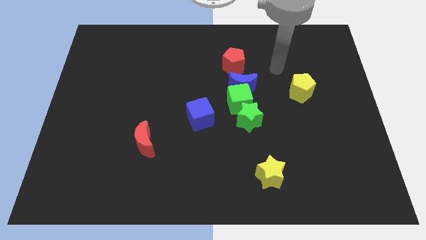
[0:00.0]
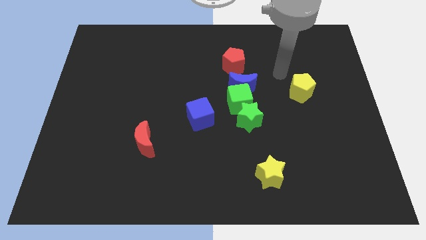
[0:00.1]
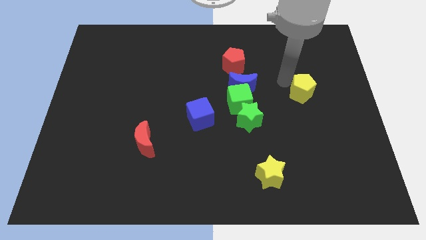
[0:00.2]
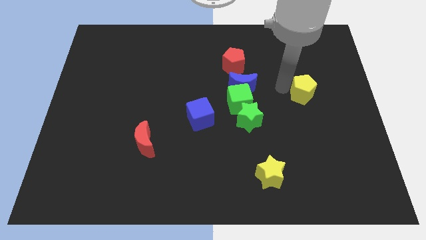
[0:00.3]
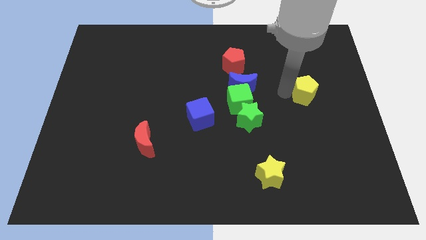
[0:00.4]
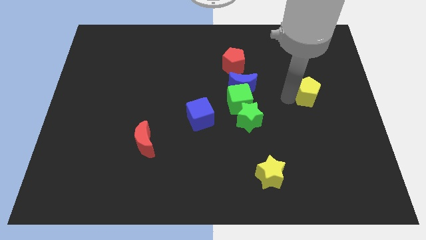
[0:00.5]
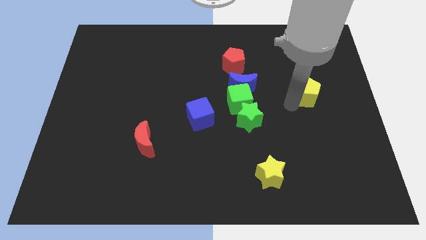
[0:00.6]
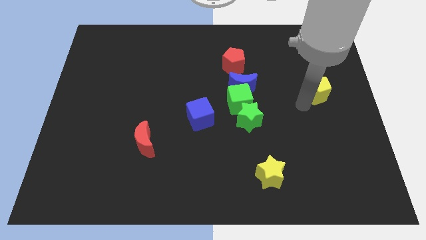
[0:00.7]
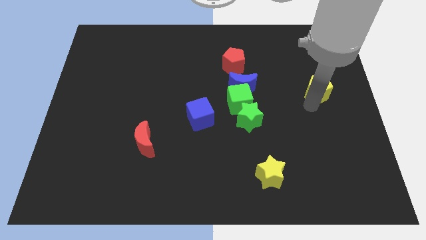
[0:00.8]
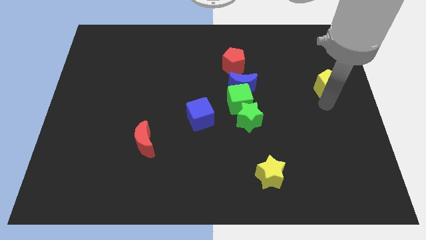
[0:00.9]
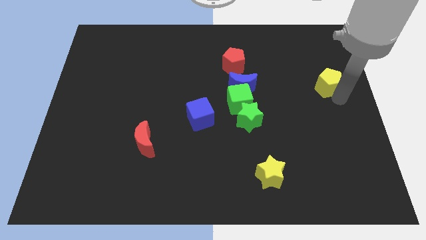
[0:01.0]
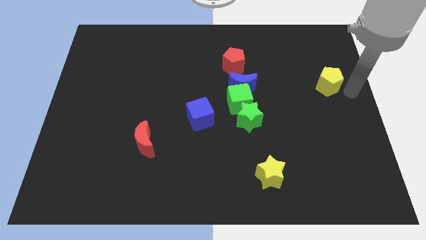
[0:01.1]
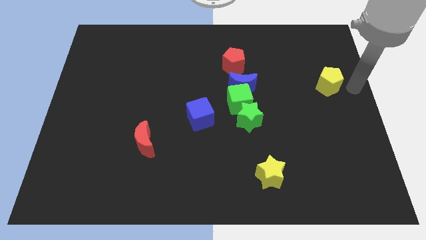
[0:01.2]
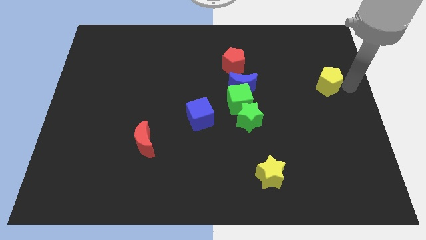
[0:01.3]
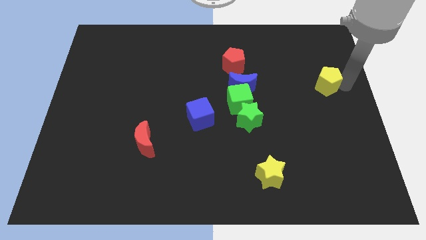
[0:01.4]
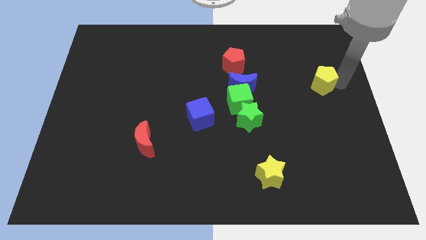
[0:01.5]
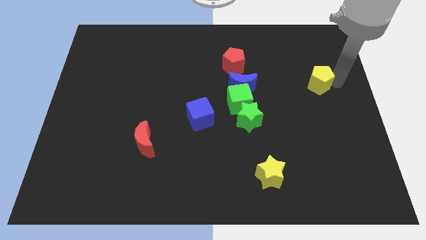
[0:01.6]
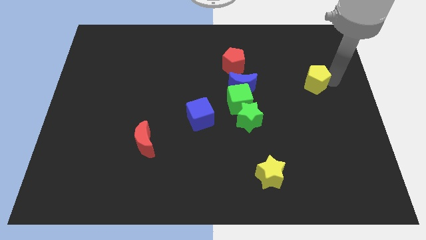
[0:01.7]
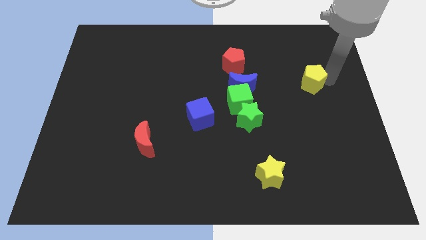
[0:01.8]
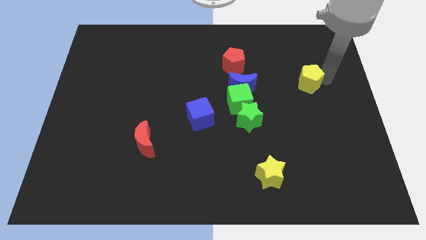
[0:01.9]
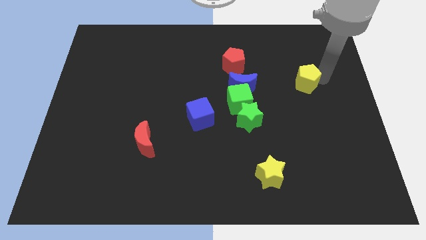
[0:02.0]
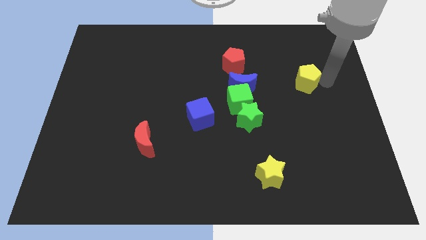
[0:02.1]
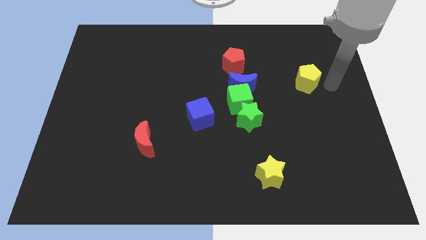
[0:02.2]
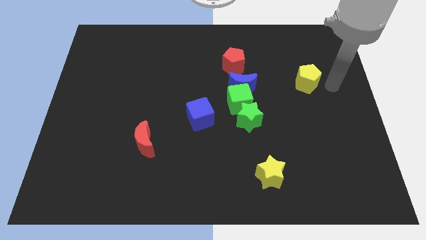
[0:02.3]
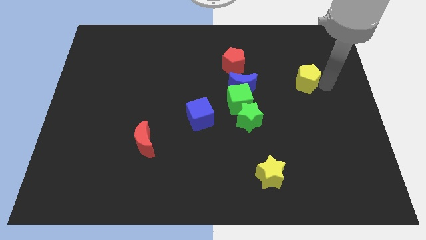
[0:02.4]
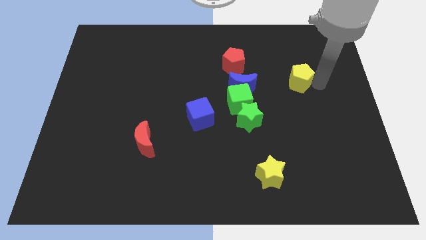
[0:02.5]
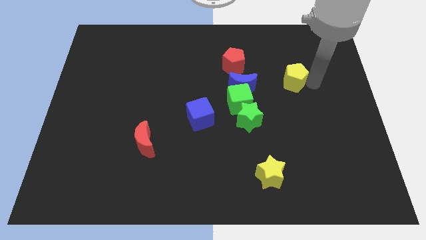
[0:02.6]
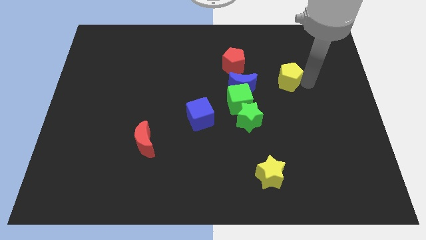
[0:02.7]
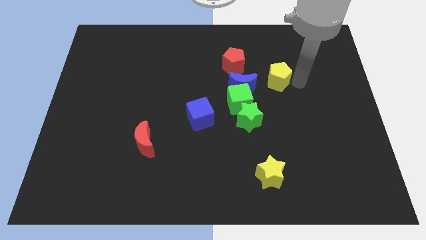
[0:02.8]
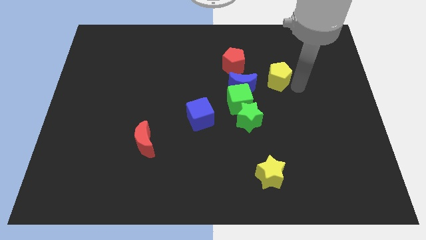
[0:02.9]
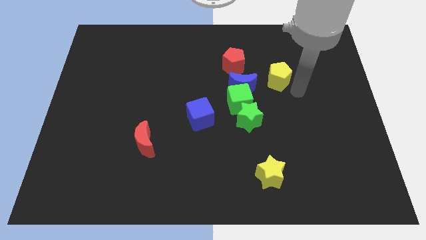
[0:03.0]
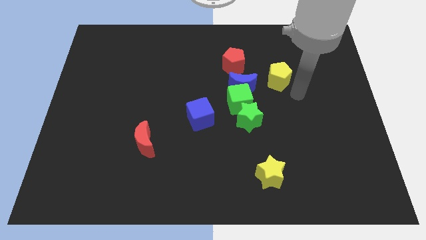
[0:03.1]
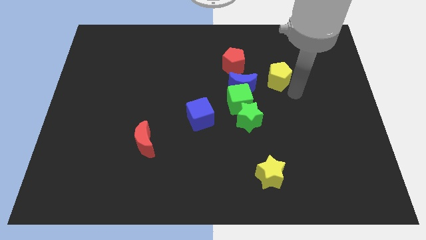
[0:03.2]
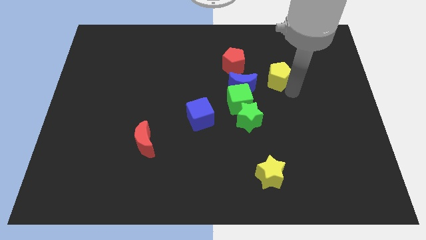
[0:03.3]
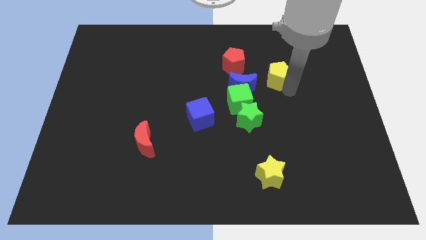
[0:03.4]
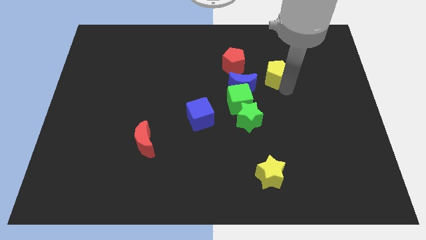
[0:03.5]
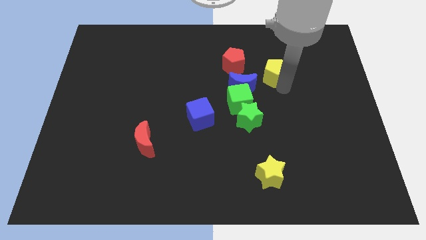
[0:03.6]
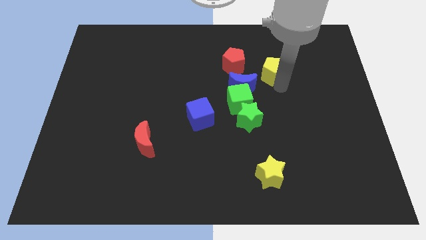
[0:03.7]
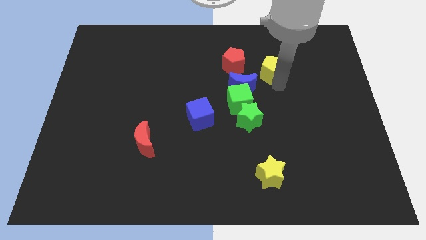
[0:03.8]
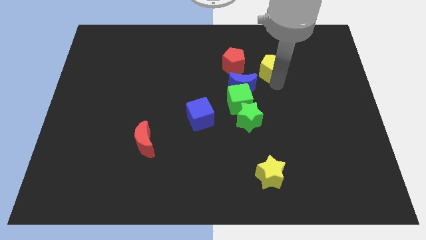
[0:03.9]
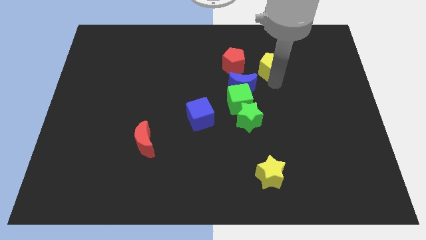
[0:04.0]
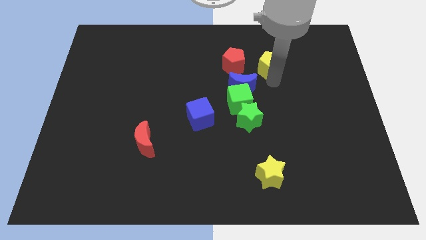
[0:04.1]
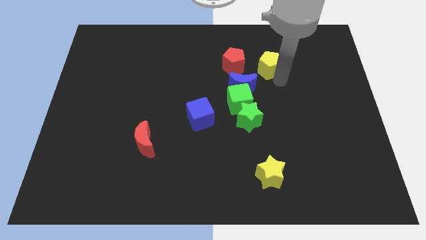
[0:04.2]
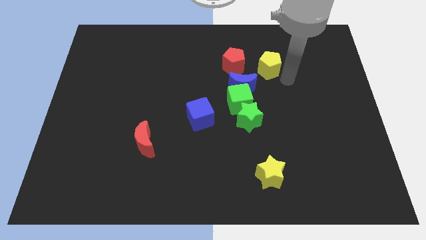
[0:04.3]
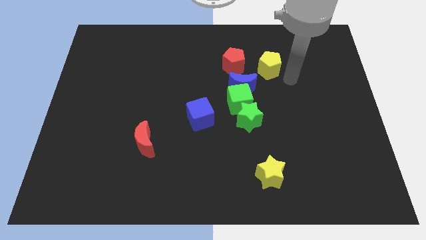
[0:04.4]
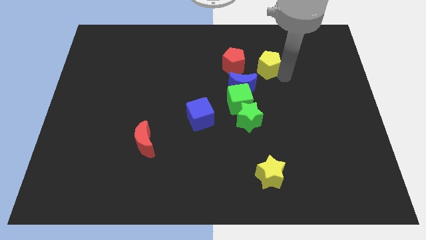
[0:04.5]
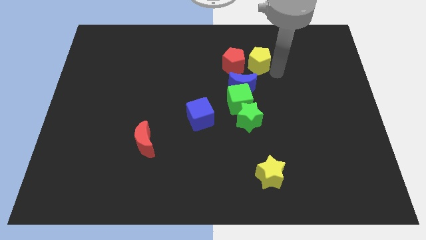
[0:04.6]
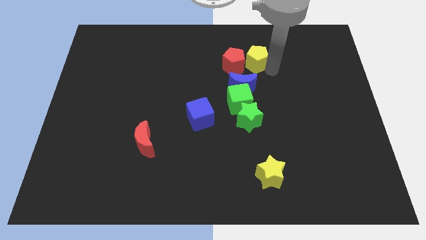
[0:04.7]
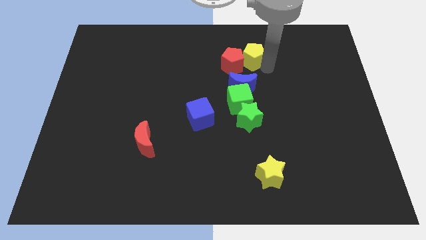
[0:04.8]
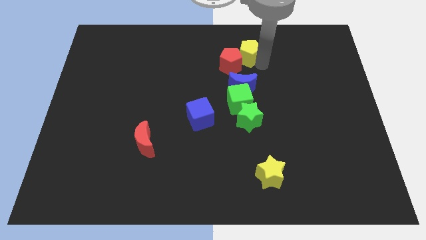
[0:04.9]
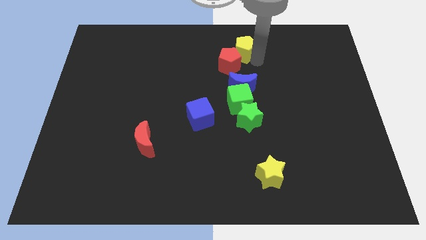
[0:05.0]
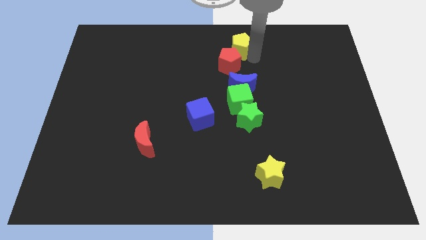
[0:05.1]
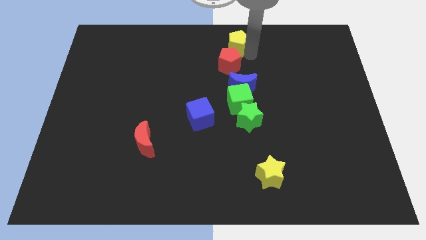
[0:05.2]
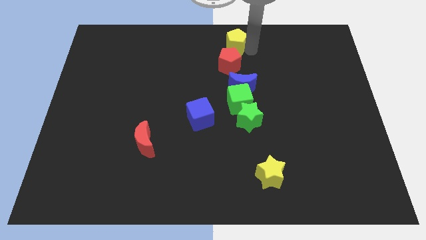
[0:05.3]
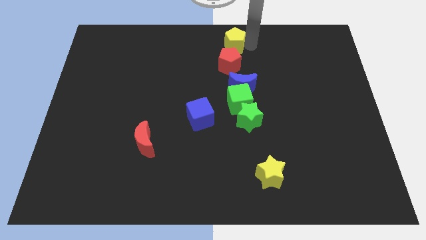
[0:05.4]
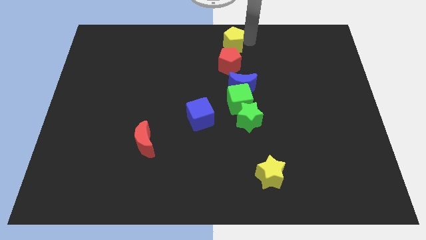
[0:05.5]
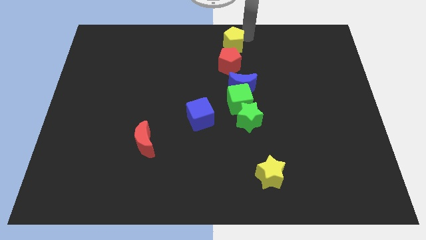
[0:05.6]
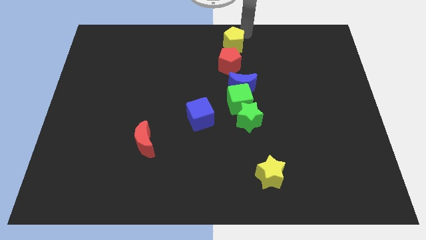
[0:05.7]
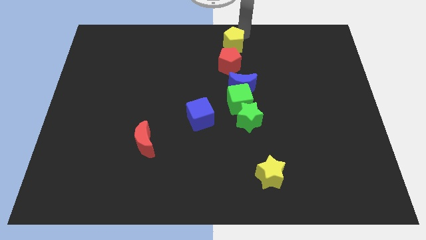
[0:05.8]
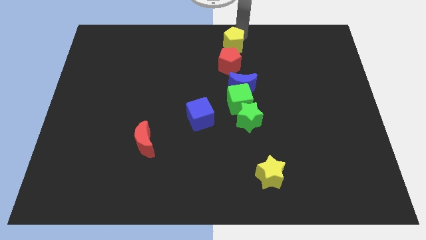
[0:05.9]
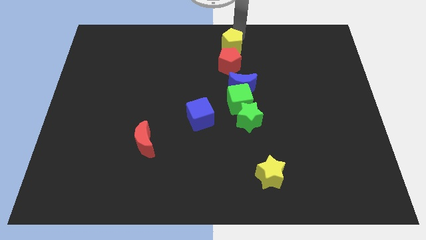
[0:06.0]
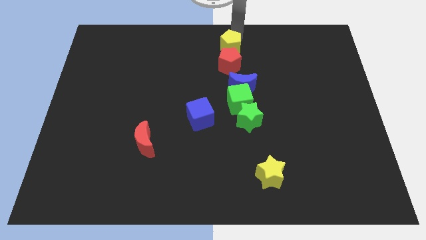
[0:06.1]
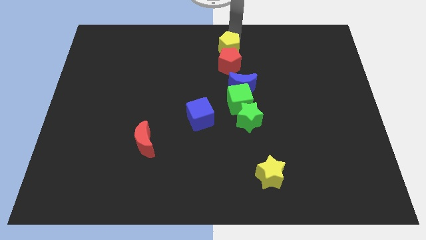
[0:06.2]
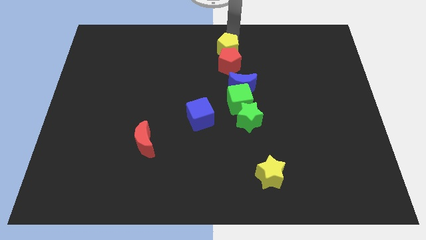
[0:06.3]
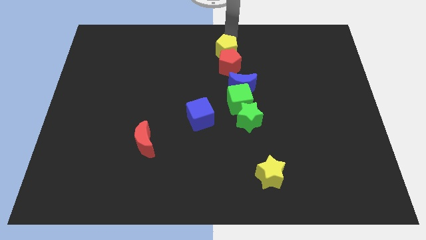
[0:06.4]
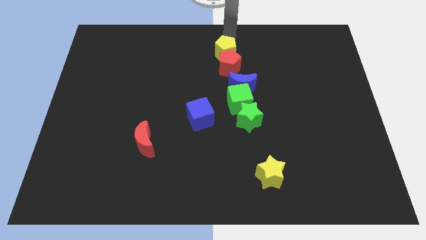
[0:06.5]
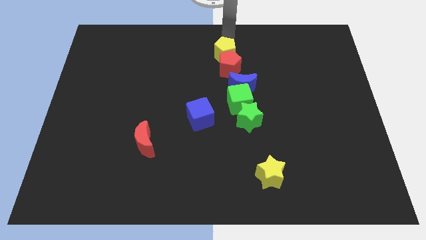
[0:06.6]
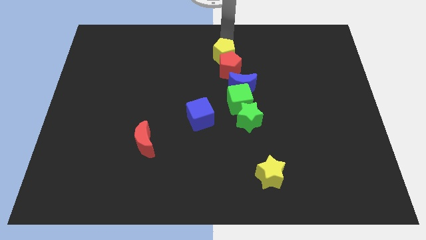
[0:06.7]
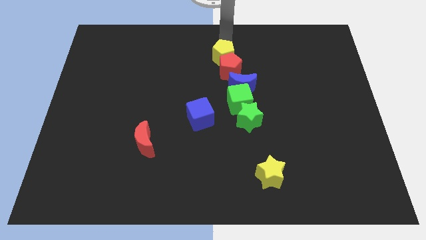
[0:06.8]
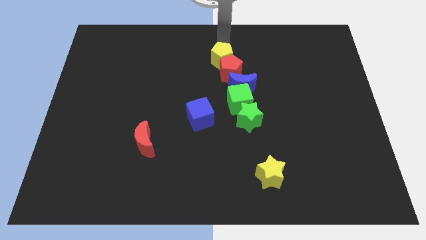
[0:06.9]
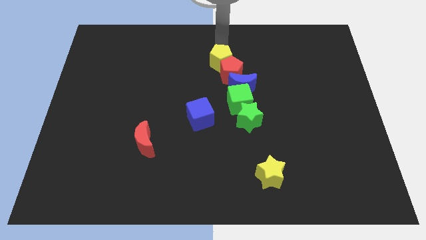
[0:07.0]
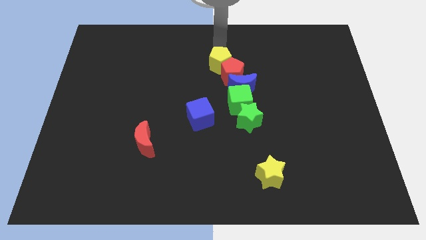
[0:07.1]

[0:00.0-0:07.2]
slide the yellow pentagon to the center of the board
